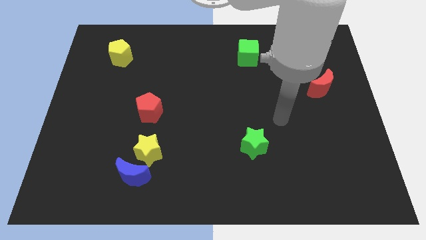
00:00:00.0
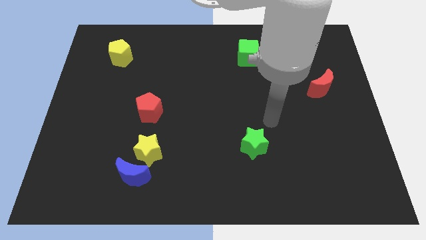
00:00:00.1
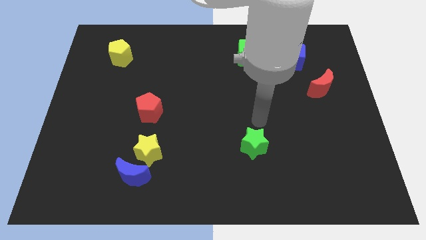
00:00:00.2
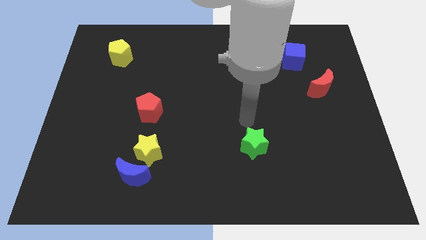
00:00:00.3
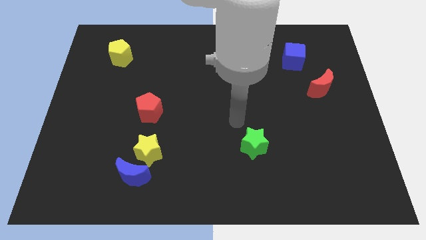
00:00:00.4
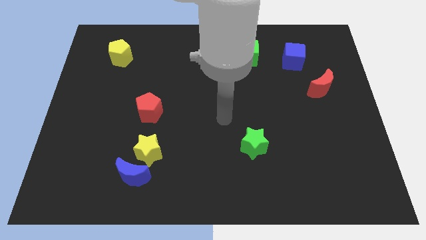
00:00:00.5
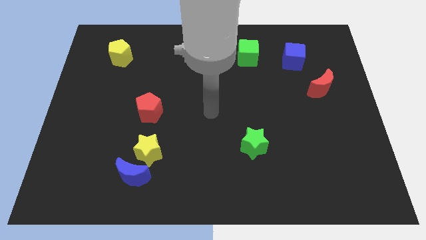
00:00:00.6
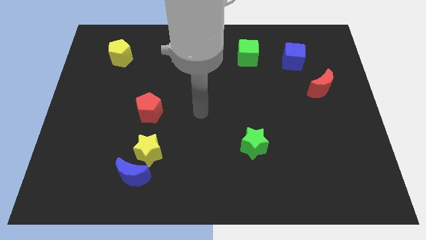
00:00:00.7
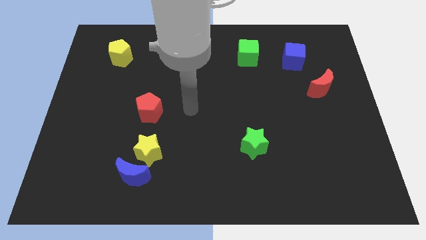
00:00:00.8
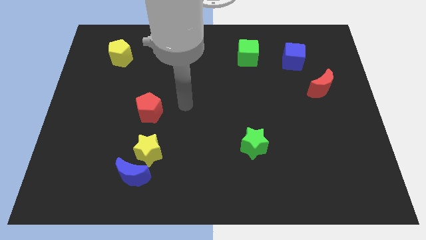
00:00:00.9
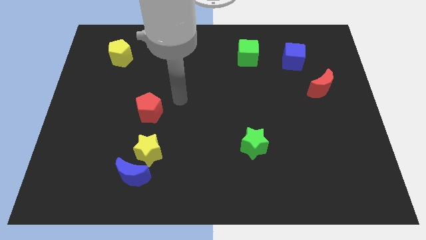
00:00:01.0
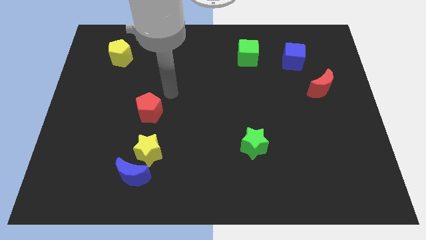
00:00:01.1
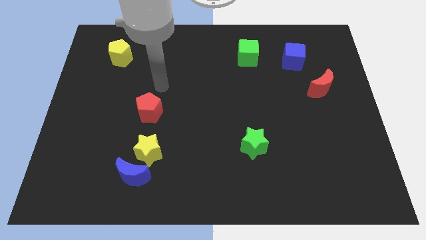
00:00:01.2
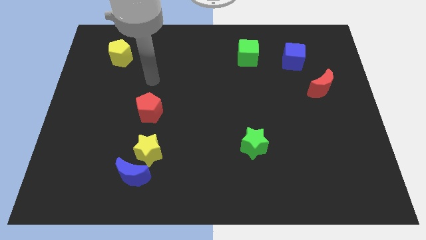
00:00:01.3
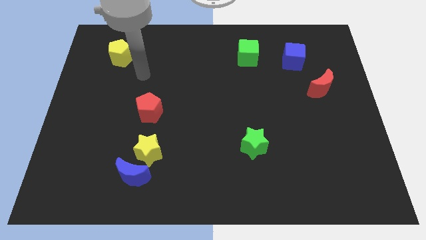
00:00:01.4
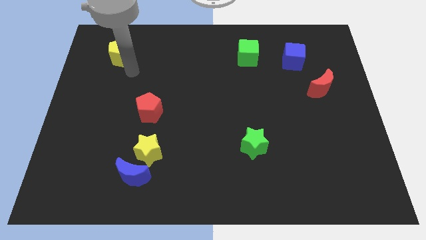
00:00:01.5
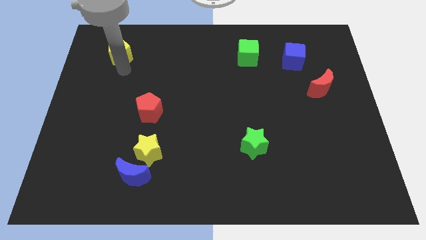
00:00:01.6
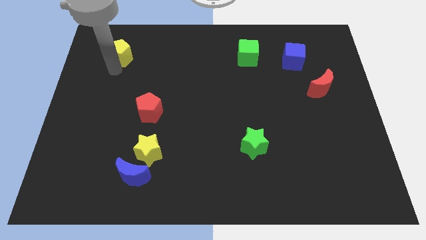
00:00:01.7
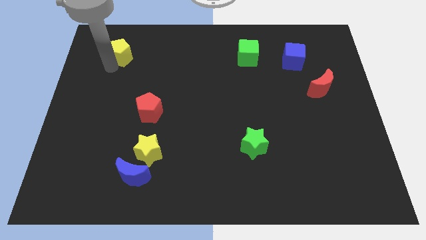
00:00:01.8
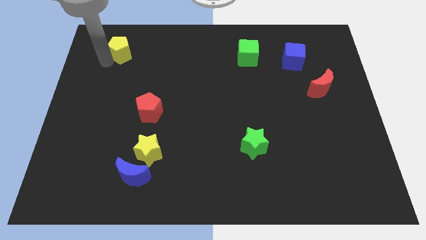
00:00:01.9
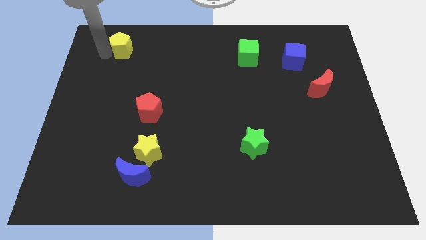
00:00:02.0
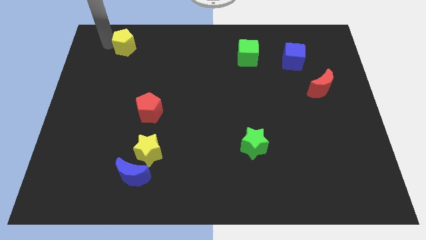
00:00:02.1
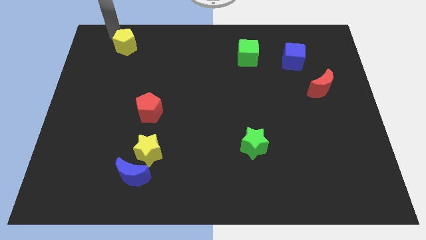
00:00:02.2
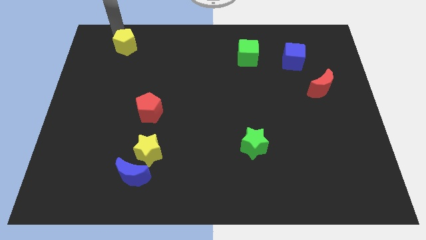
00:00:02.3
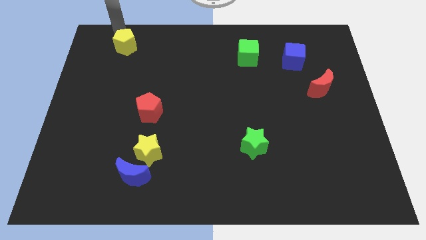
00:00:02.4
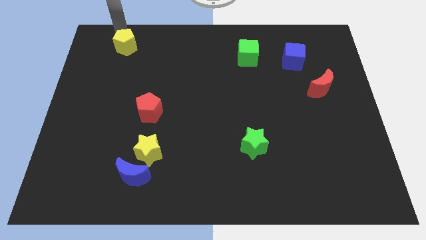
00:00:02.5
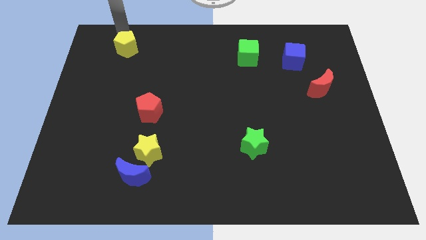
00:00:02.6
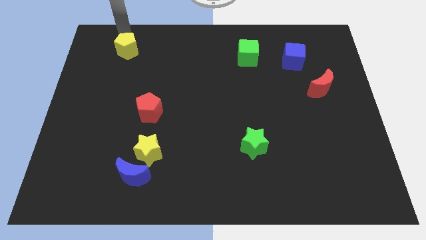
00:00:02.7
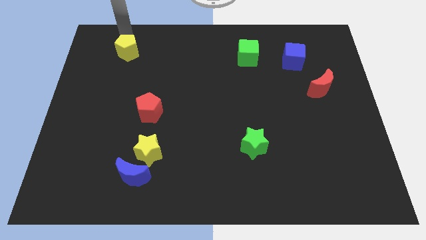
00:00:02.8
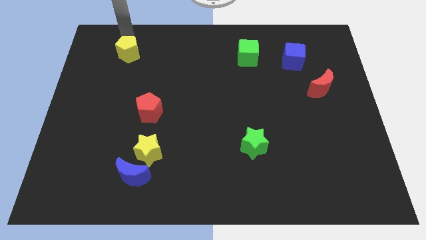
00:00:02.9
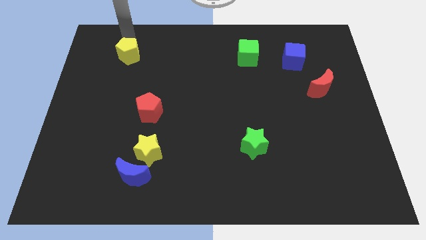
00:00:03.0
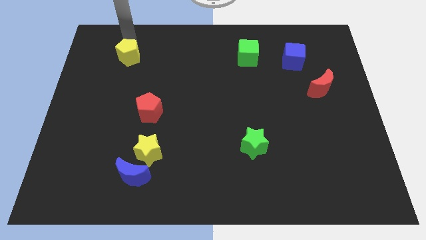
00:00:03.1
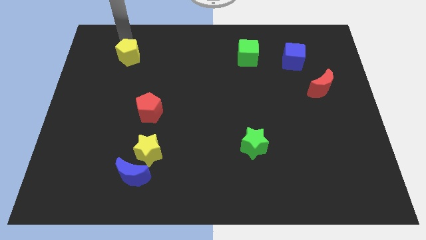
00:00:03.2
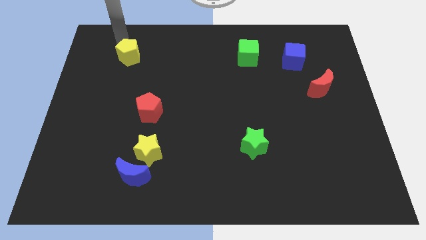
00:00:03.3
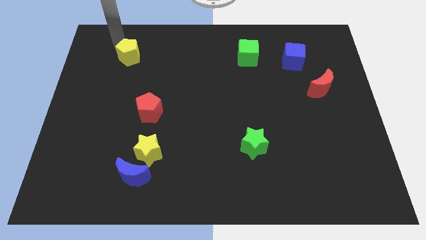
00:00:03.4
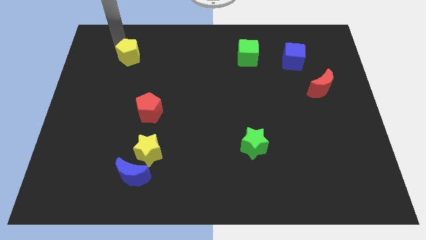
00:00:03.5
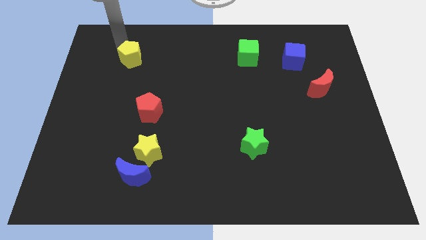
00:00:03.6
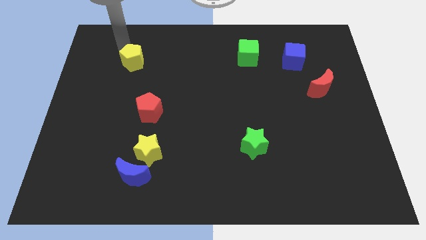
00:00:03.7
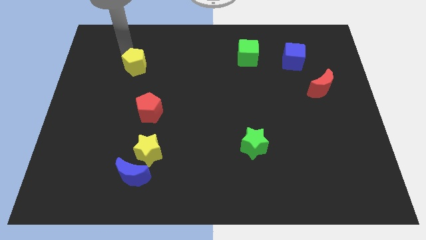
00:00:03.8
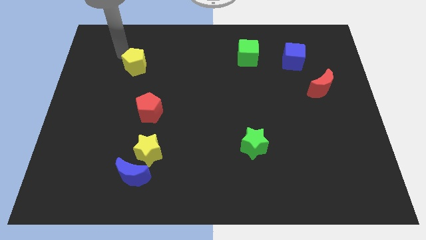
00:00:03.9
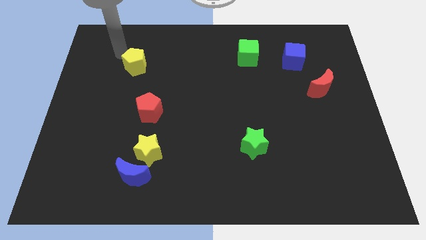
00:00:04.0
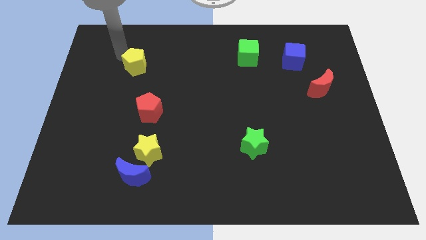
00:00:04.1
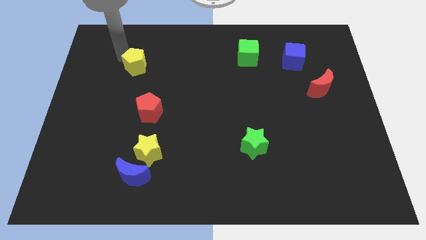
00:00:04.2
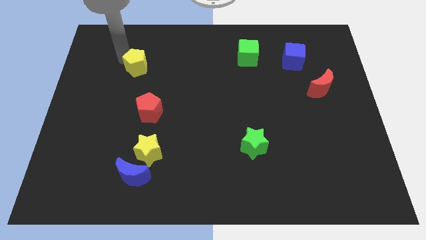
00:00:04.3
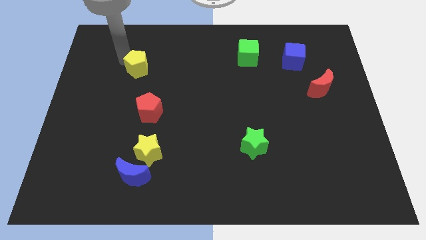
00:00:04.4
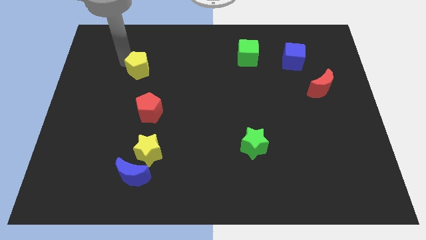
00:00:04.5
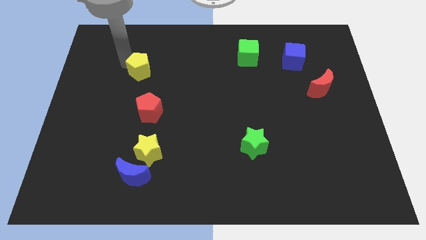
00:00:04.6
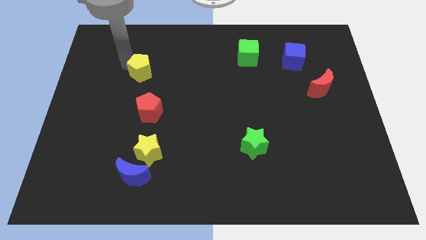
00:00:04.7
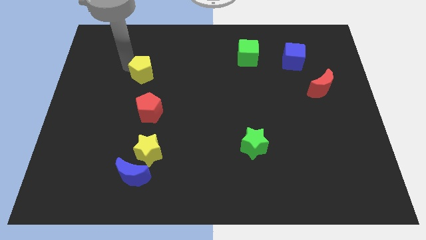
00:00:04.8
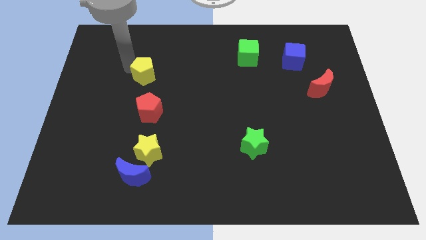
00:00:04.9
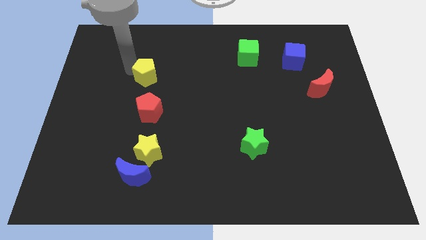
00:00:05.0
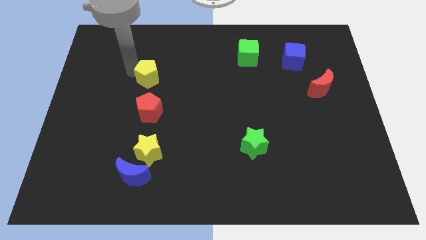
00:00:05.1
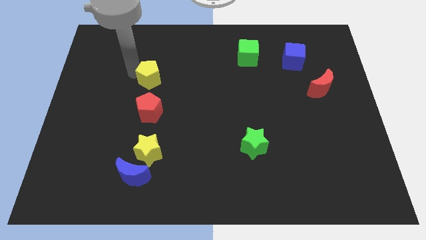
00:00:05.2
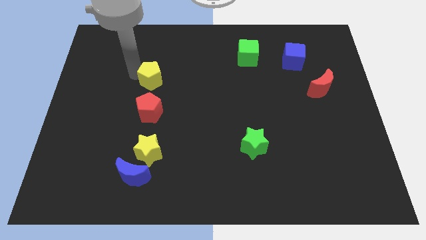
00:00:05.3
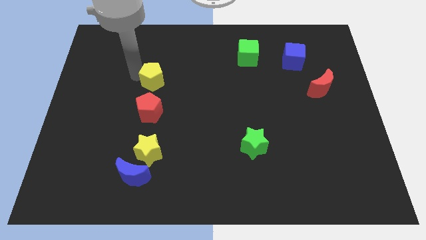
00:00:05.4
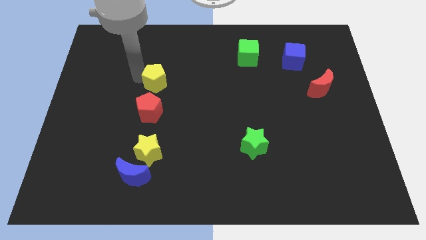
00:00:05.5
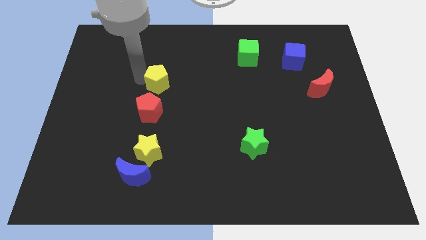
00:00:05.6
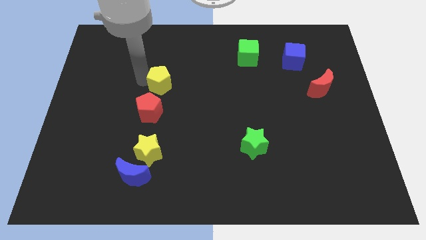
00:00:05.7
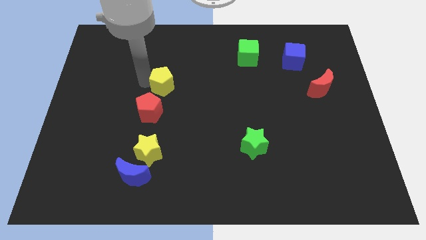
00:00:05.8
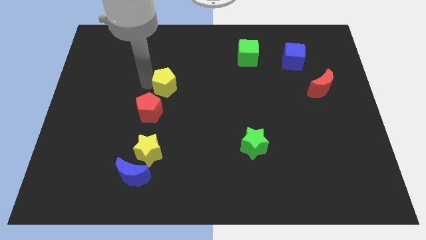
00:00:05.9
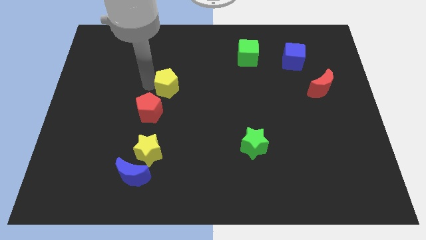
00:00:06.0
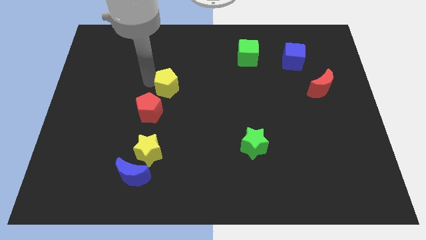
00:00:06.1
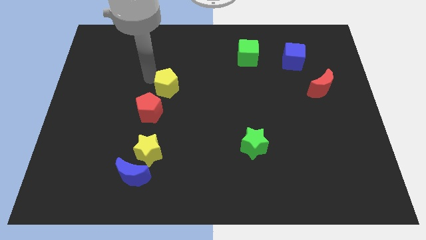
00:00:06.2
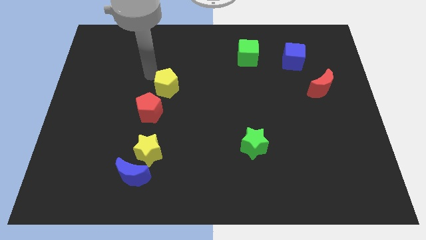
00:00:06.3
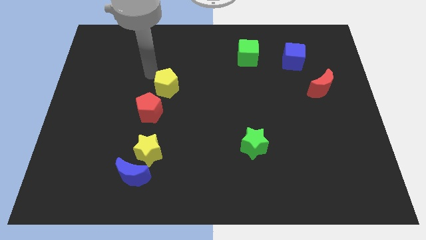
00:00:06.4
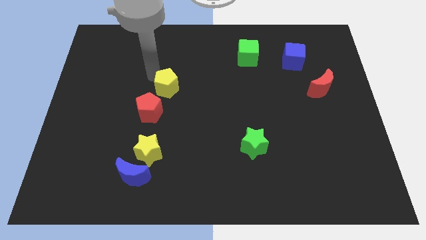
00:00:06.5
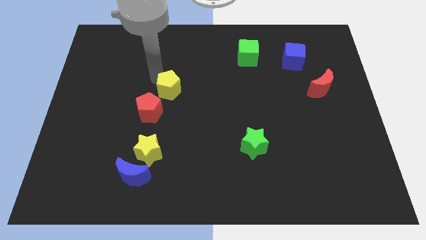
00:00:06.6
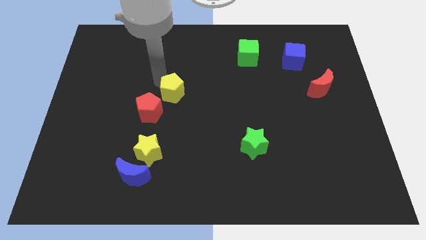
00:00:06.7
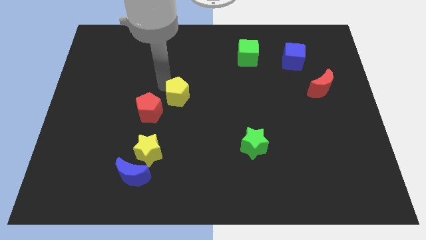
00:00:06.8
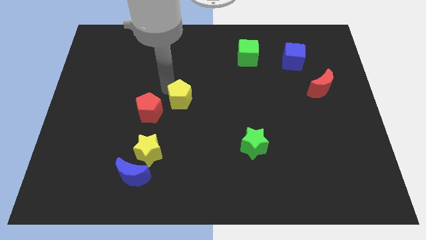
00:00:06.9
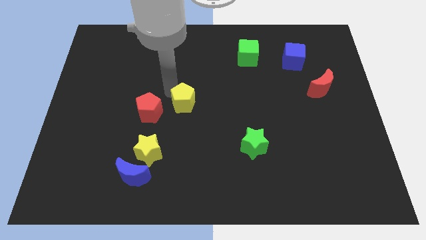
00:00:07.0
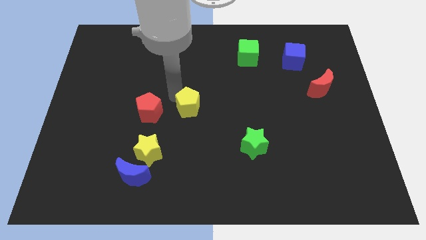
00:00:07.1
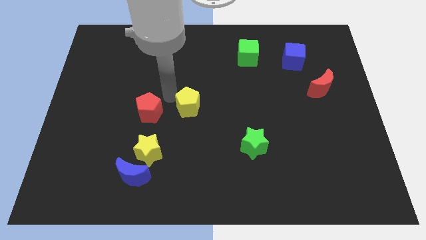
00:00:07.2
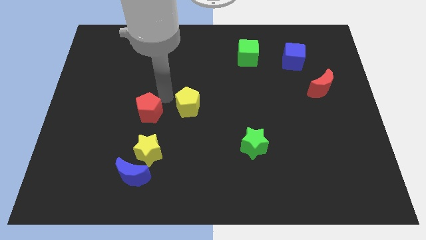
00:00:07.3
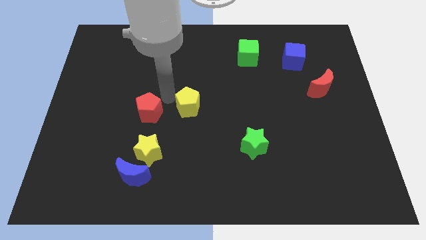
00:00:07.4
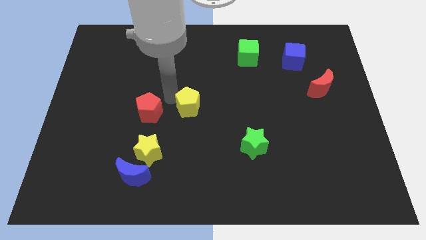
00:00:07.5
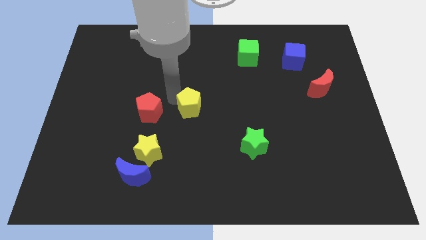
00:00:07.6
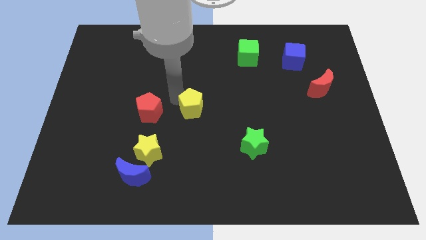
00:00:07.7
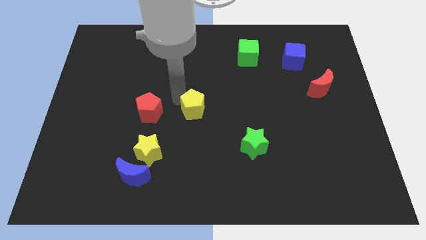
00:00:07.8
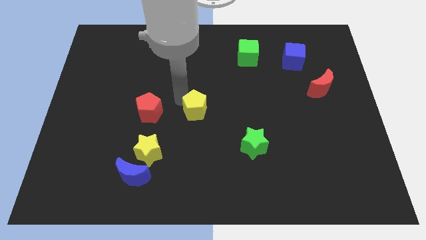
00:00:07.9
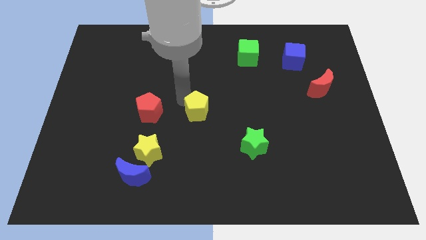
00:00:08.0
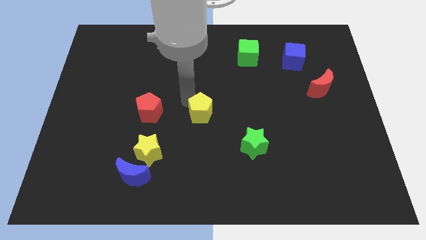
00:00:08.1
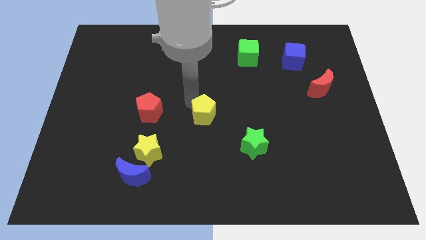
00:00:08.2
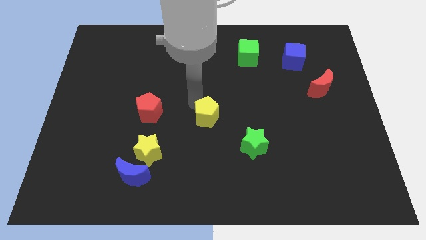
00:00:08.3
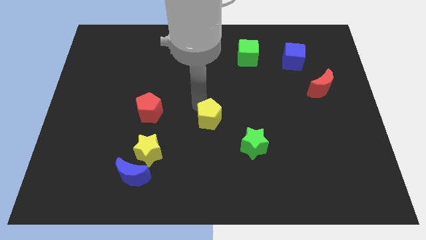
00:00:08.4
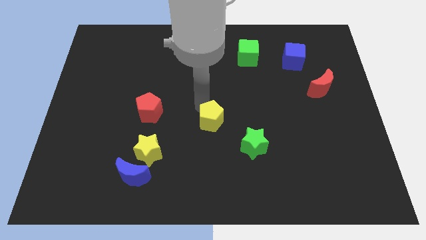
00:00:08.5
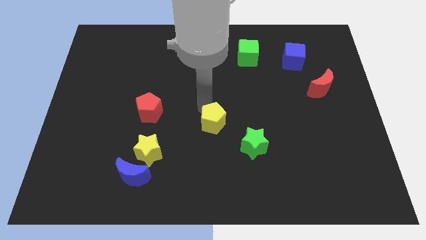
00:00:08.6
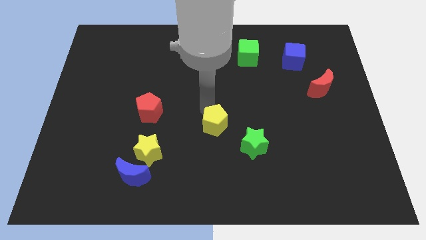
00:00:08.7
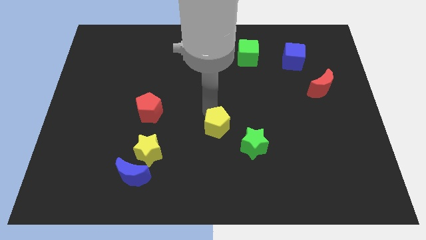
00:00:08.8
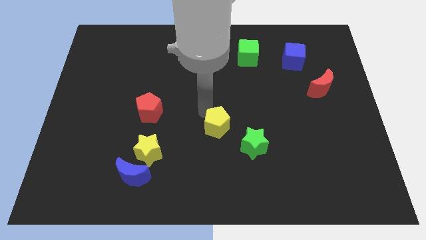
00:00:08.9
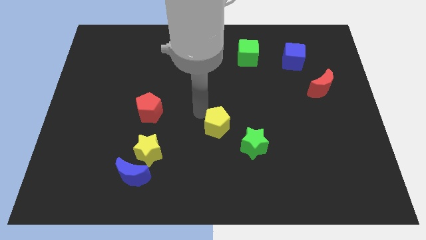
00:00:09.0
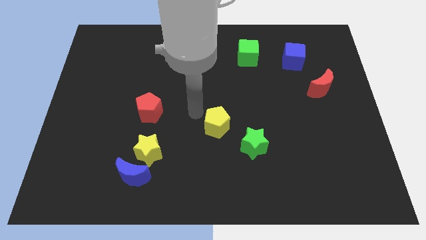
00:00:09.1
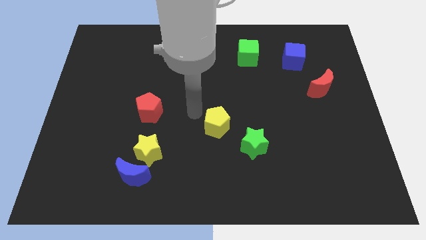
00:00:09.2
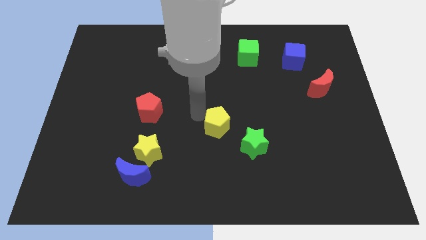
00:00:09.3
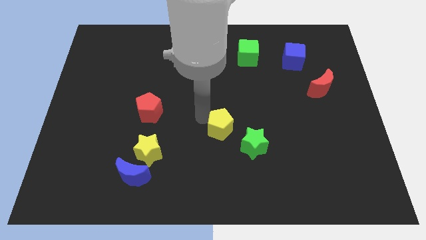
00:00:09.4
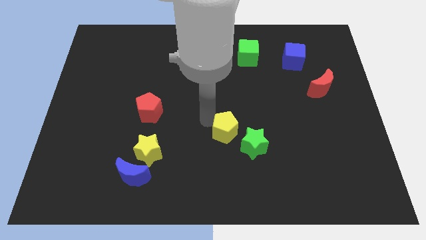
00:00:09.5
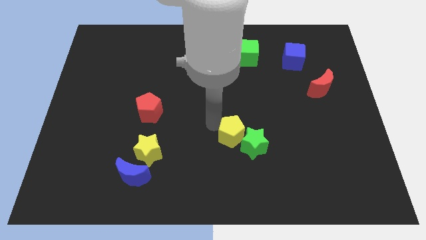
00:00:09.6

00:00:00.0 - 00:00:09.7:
move the yellow pentagon towards the green star
